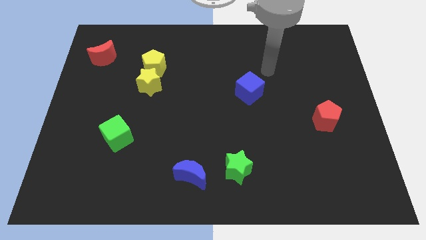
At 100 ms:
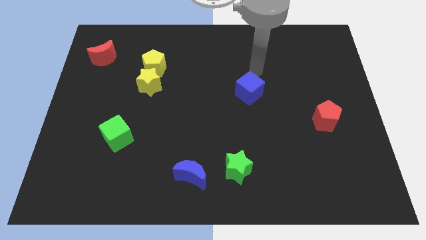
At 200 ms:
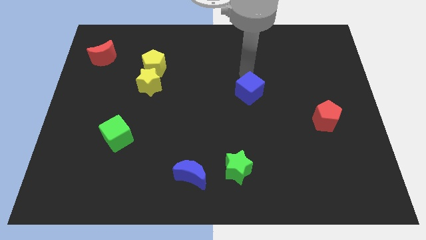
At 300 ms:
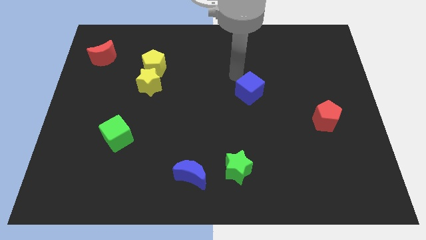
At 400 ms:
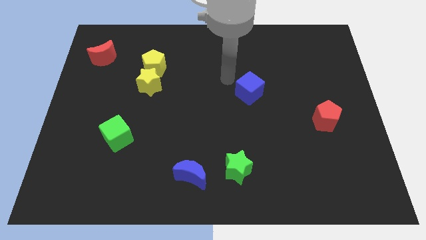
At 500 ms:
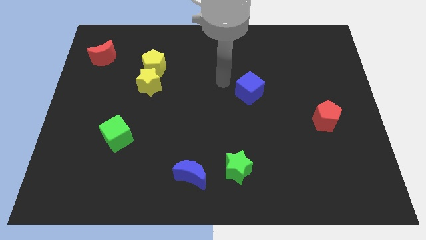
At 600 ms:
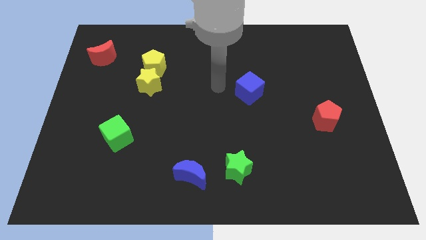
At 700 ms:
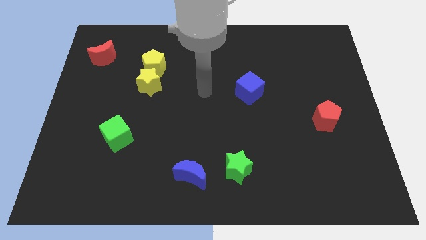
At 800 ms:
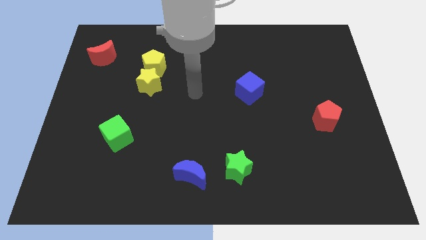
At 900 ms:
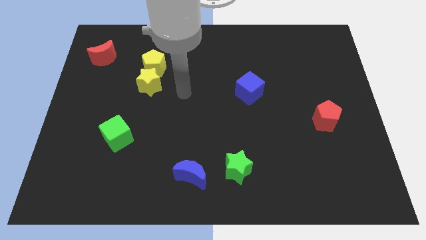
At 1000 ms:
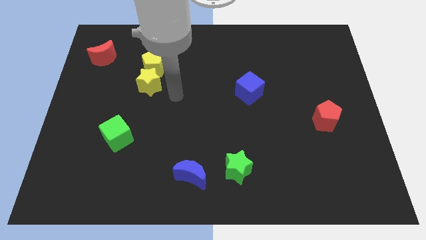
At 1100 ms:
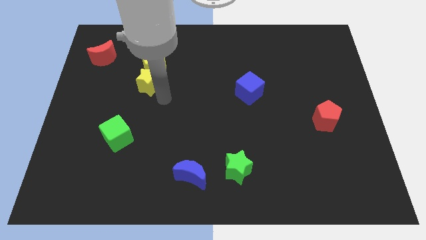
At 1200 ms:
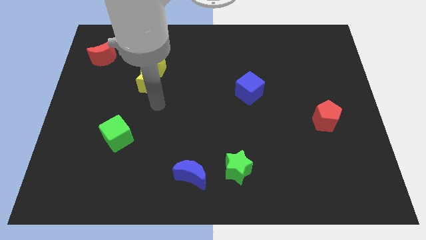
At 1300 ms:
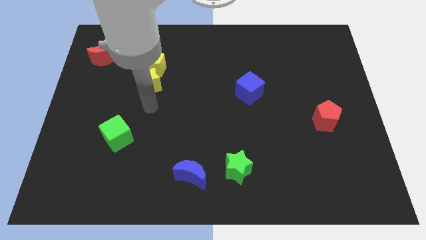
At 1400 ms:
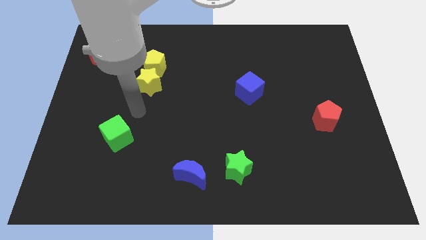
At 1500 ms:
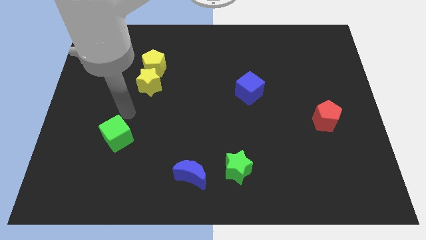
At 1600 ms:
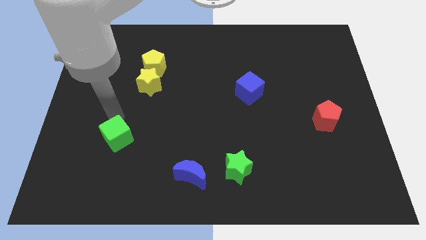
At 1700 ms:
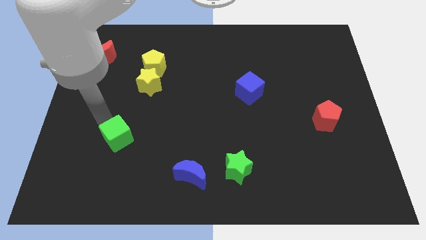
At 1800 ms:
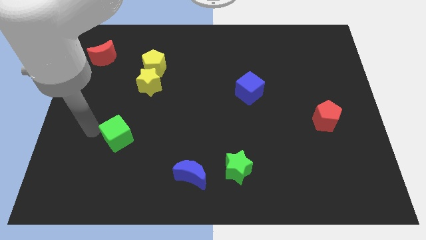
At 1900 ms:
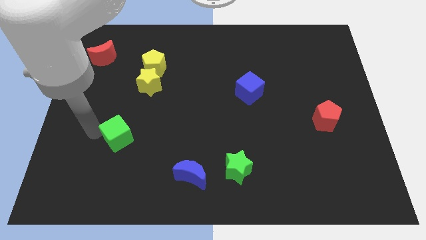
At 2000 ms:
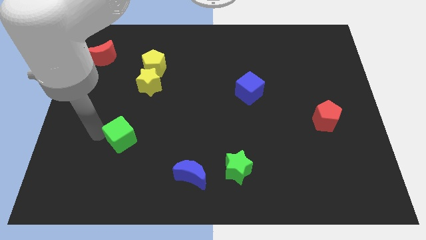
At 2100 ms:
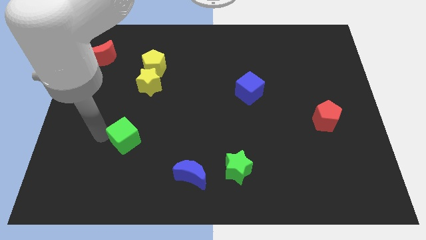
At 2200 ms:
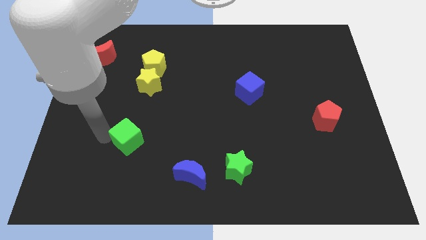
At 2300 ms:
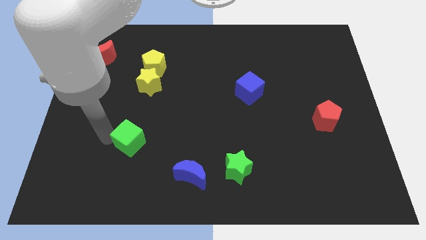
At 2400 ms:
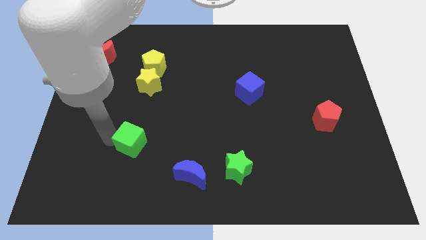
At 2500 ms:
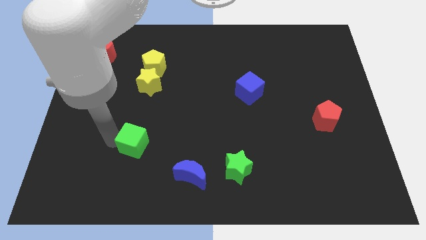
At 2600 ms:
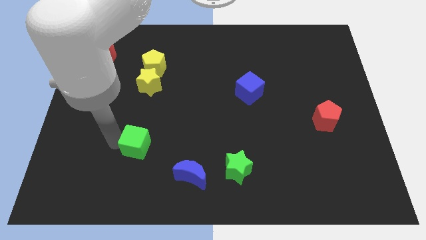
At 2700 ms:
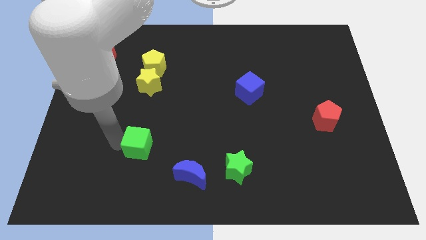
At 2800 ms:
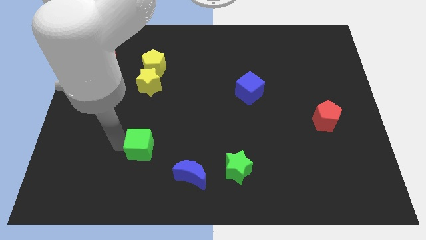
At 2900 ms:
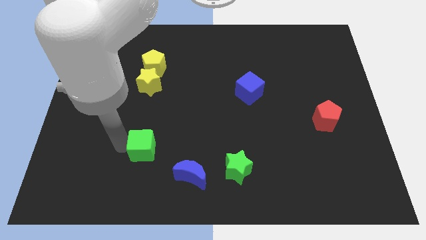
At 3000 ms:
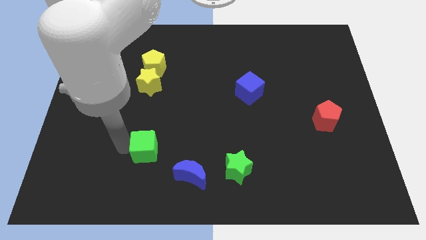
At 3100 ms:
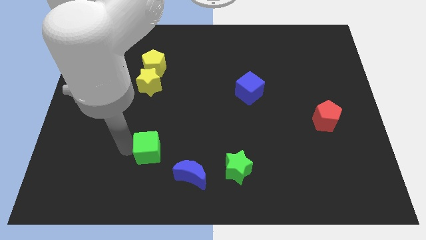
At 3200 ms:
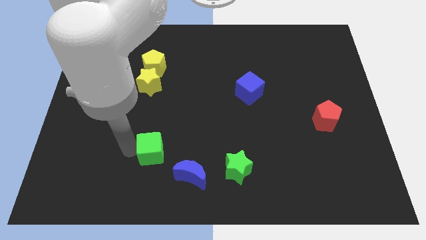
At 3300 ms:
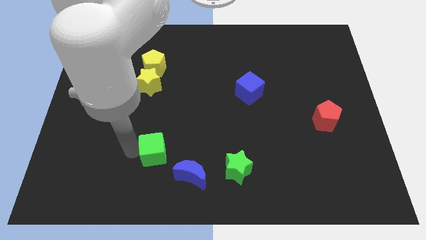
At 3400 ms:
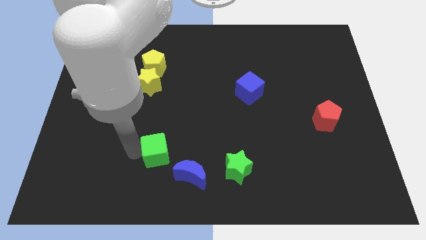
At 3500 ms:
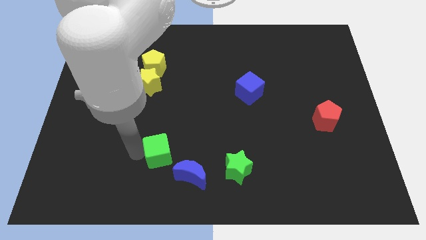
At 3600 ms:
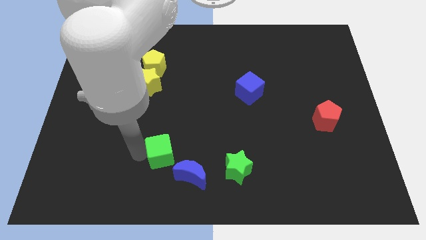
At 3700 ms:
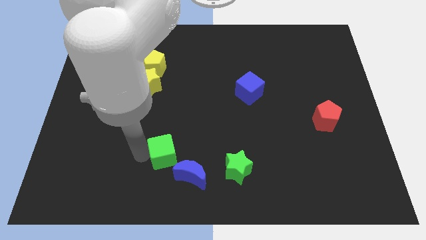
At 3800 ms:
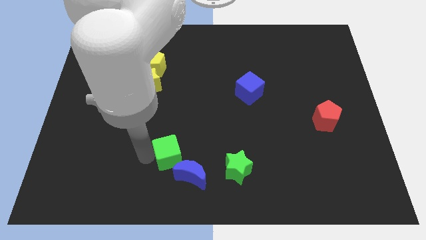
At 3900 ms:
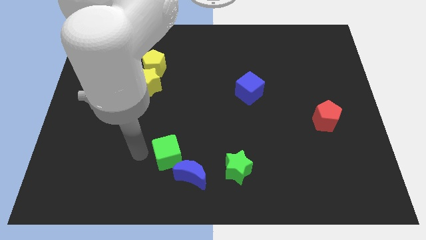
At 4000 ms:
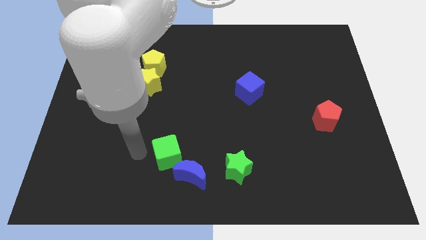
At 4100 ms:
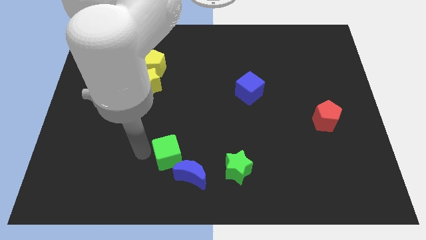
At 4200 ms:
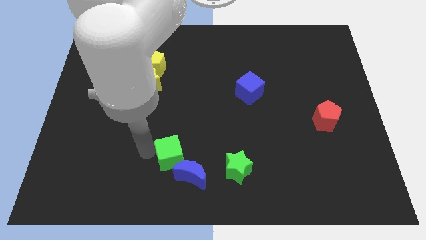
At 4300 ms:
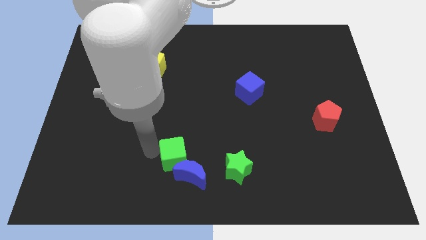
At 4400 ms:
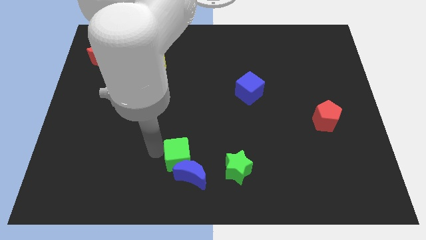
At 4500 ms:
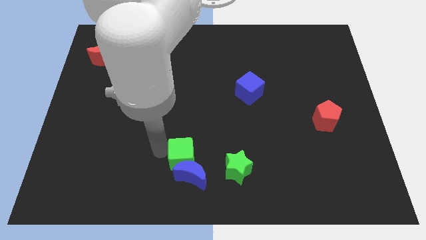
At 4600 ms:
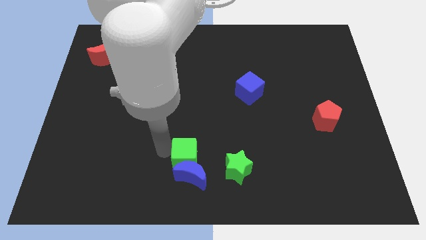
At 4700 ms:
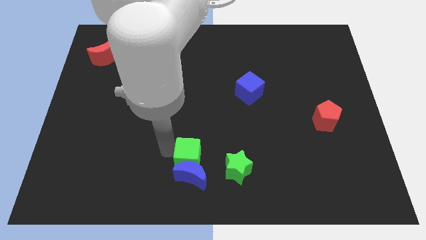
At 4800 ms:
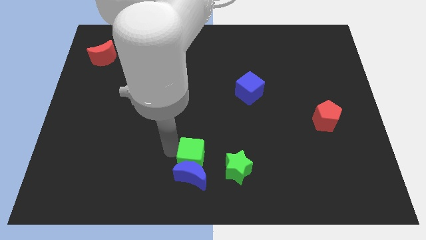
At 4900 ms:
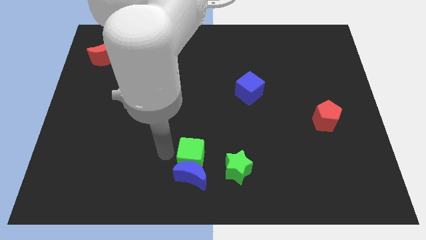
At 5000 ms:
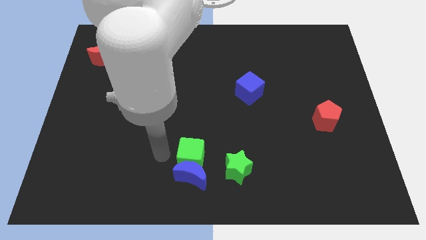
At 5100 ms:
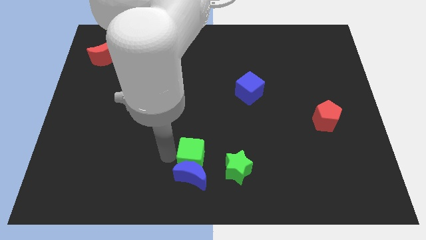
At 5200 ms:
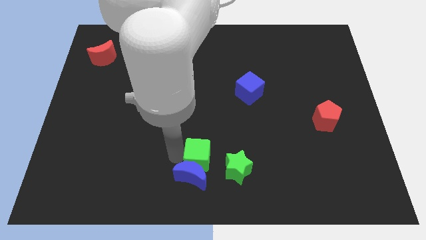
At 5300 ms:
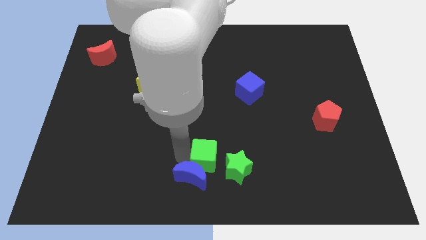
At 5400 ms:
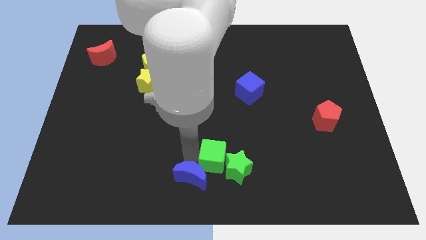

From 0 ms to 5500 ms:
put the green cube towards the green star

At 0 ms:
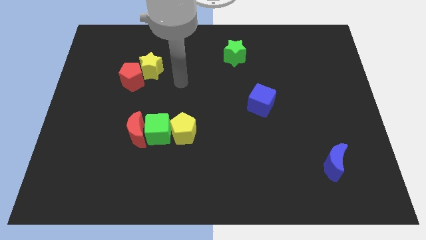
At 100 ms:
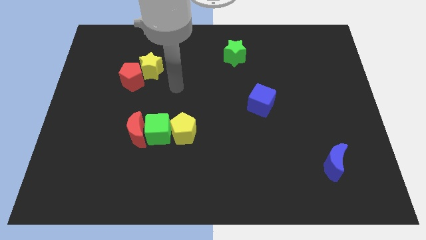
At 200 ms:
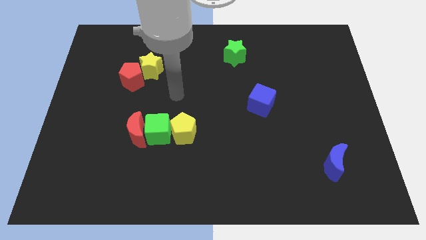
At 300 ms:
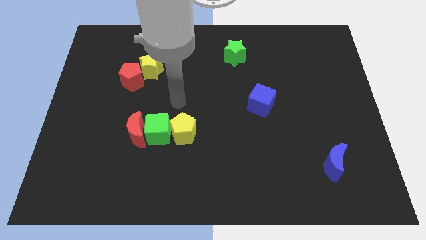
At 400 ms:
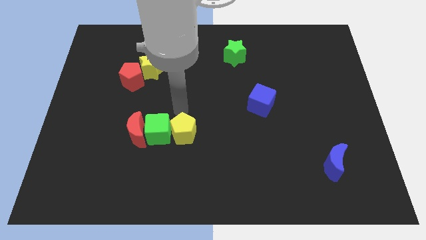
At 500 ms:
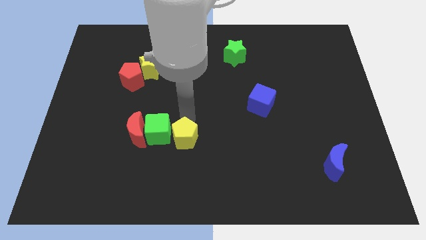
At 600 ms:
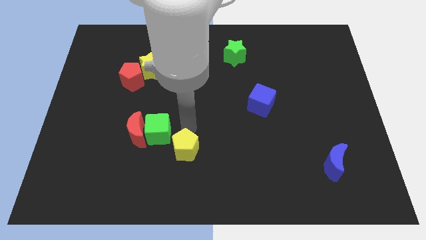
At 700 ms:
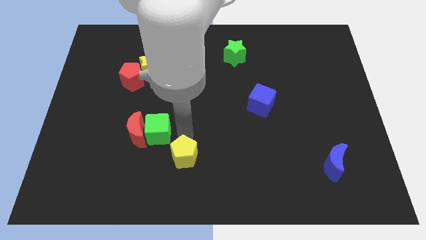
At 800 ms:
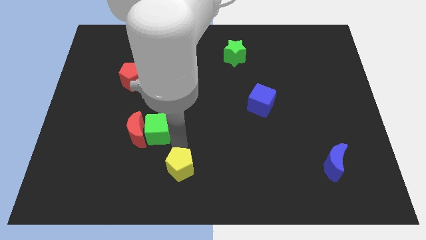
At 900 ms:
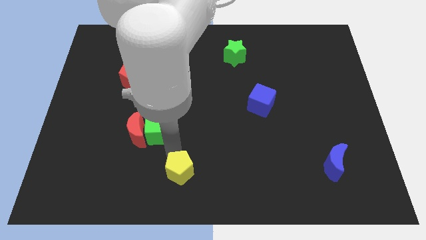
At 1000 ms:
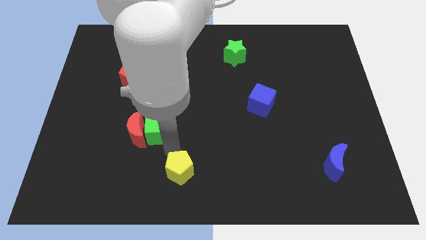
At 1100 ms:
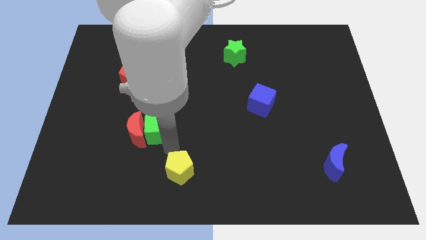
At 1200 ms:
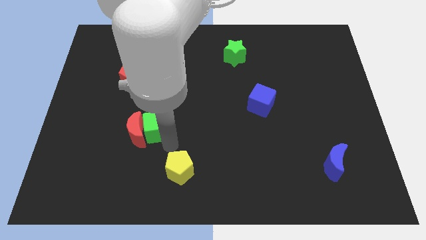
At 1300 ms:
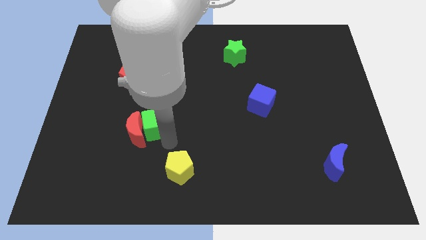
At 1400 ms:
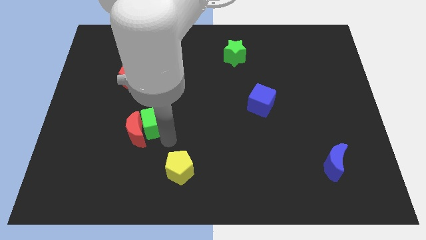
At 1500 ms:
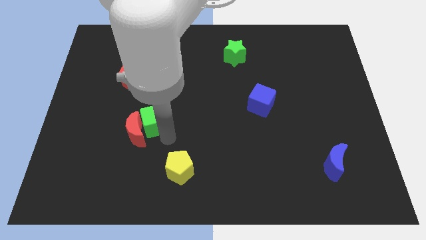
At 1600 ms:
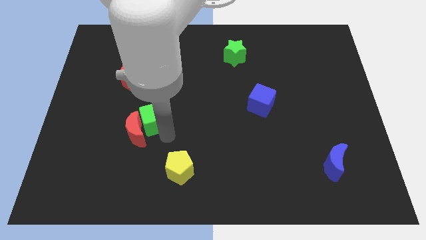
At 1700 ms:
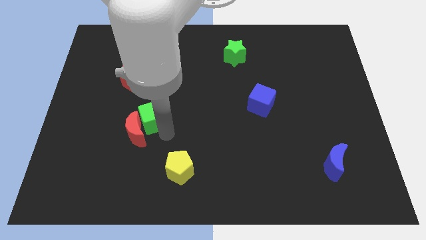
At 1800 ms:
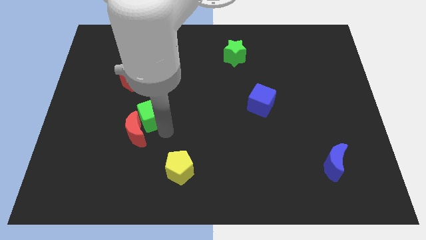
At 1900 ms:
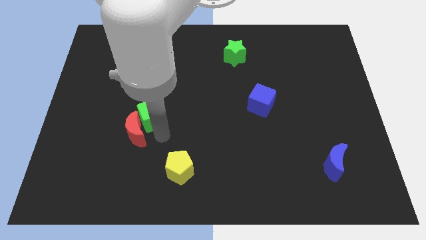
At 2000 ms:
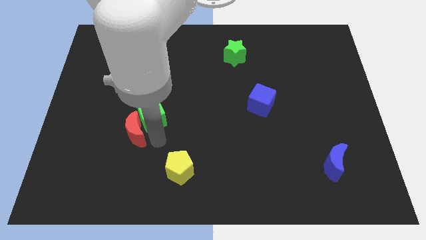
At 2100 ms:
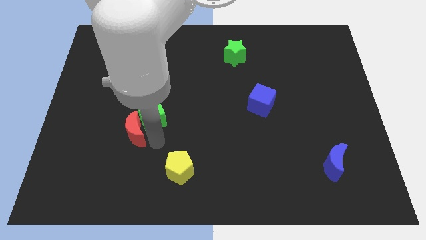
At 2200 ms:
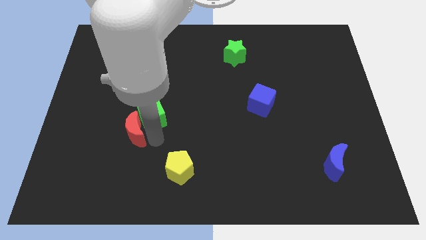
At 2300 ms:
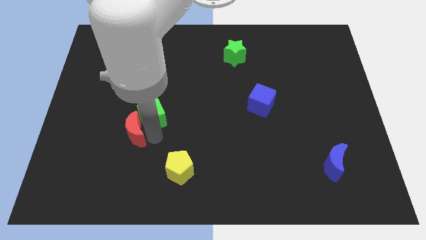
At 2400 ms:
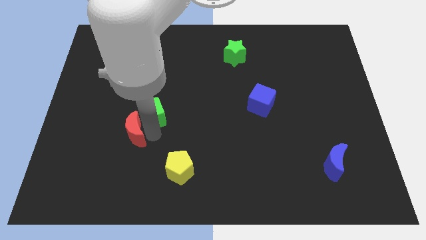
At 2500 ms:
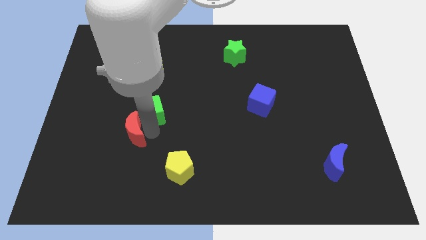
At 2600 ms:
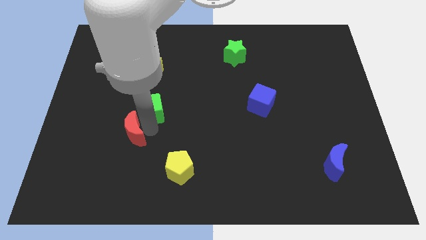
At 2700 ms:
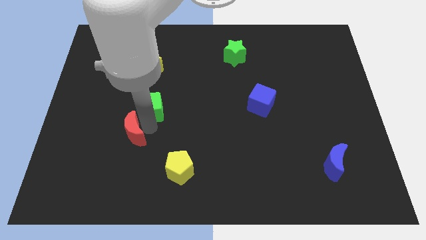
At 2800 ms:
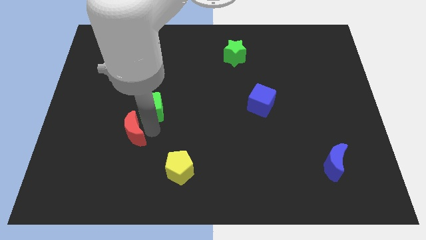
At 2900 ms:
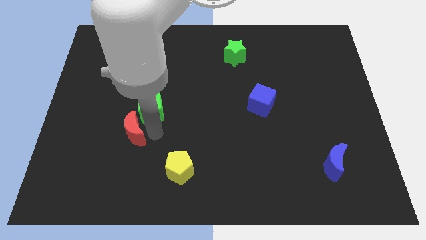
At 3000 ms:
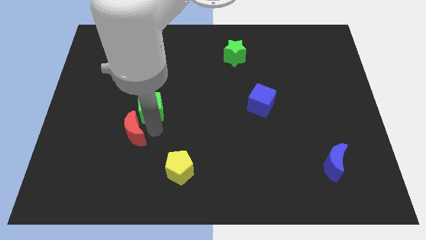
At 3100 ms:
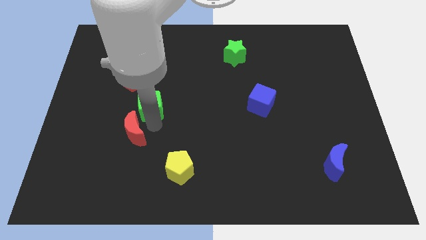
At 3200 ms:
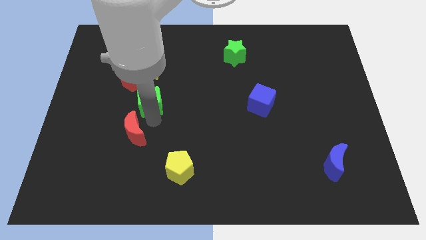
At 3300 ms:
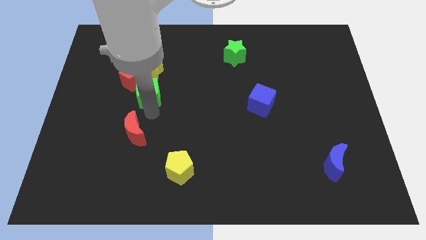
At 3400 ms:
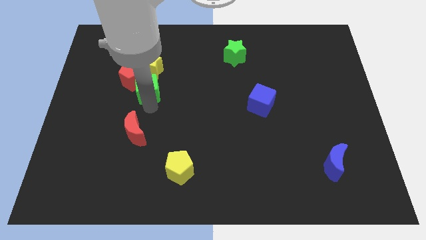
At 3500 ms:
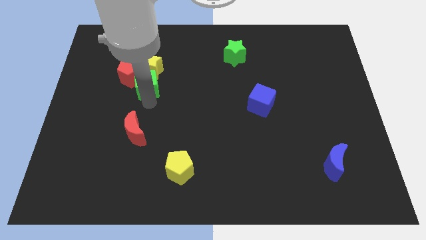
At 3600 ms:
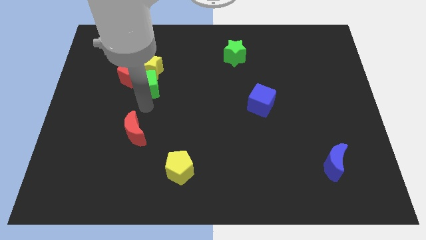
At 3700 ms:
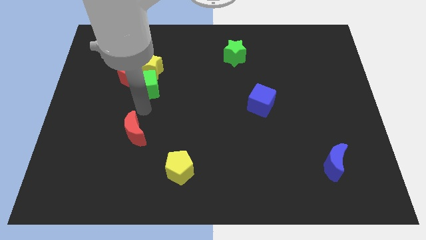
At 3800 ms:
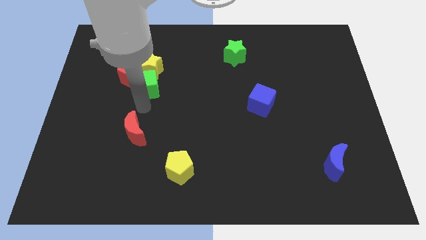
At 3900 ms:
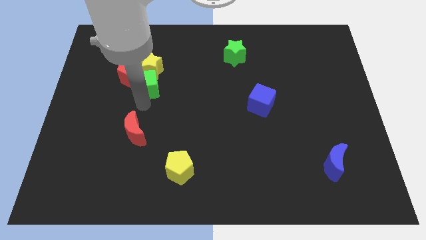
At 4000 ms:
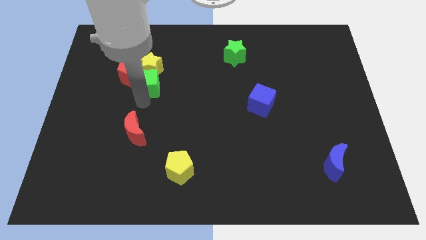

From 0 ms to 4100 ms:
push the green cube towards the yellow star
